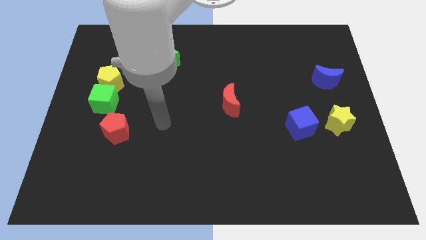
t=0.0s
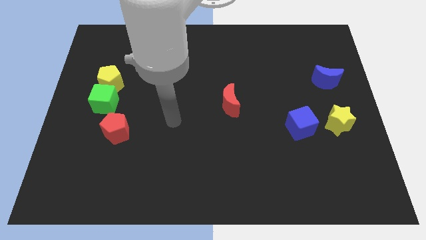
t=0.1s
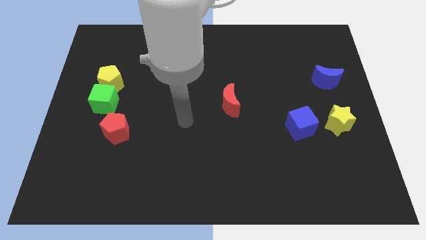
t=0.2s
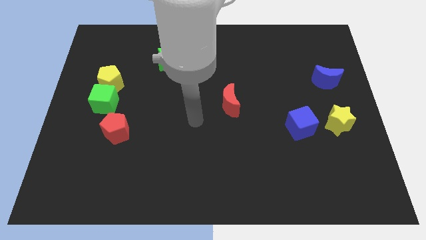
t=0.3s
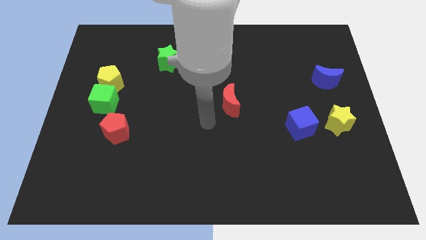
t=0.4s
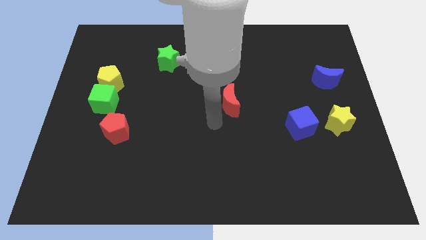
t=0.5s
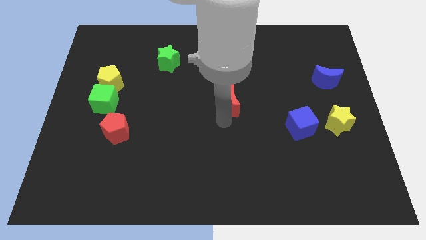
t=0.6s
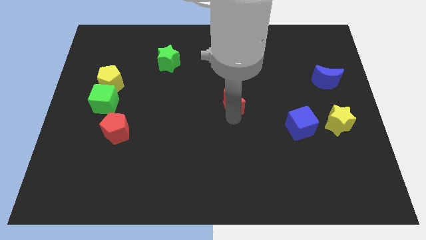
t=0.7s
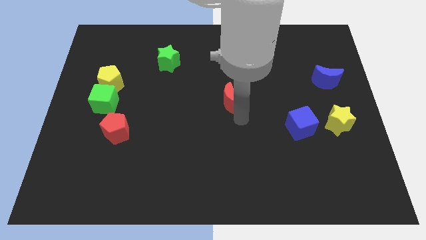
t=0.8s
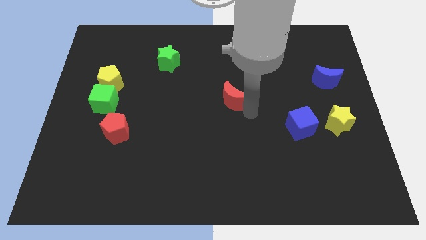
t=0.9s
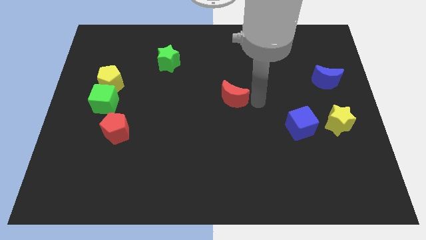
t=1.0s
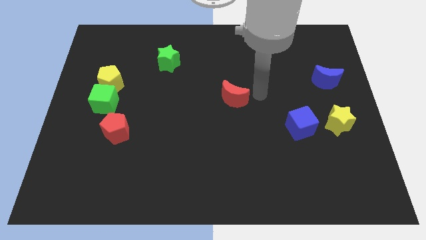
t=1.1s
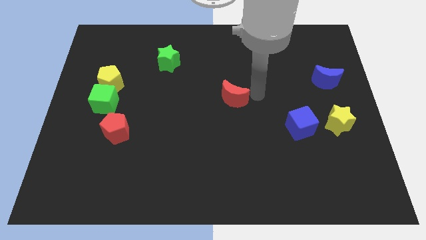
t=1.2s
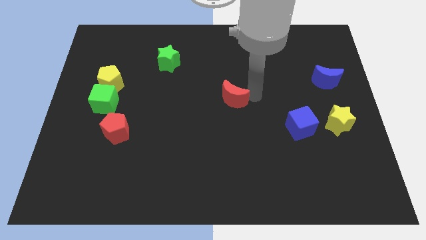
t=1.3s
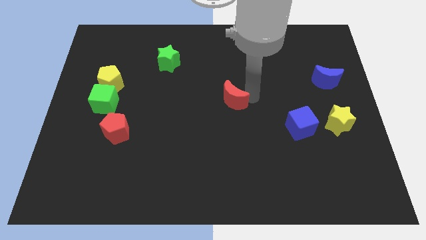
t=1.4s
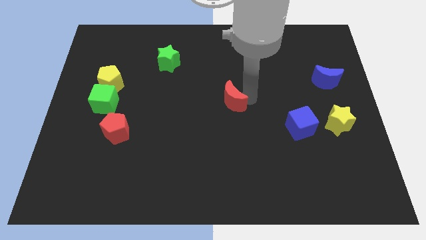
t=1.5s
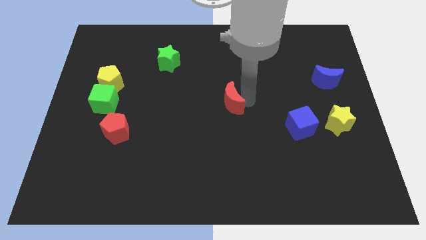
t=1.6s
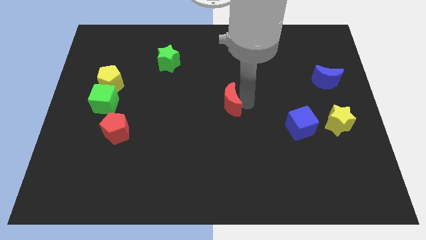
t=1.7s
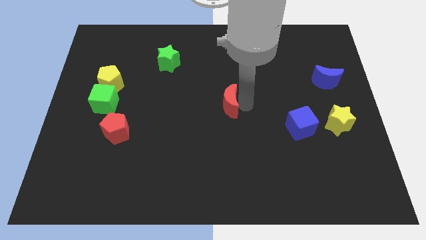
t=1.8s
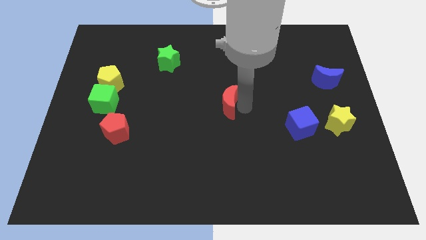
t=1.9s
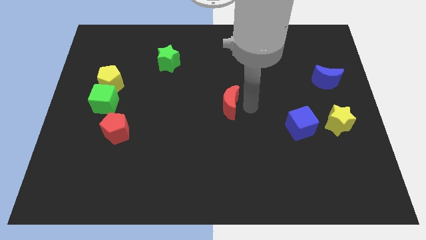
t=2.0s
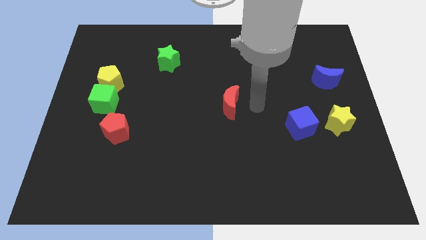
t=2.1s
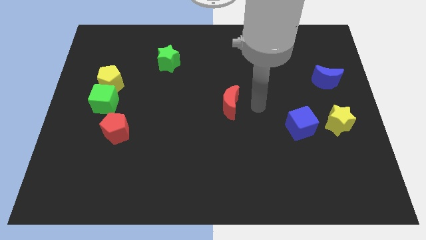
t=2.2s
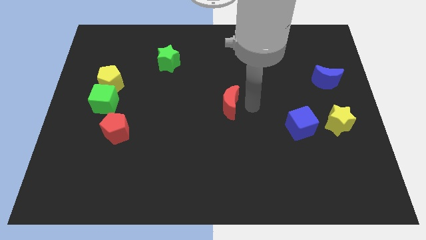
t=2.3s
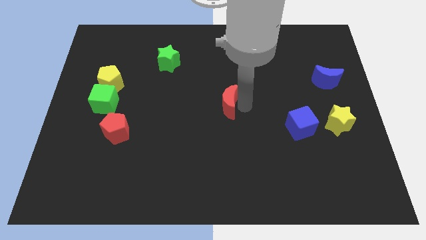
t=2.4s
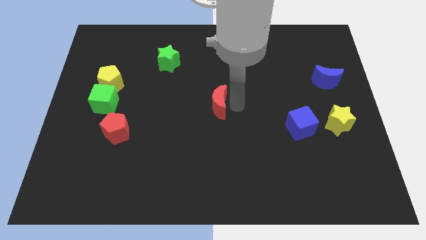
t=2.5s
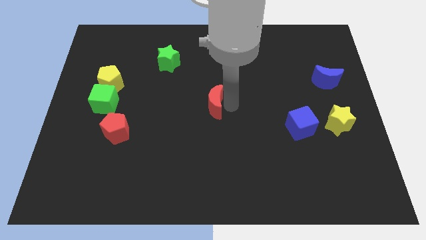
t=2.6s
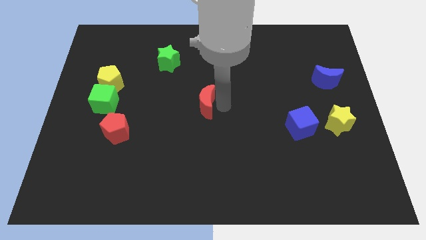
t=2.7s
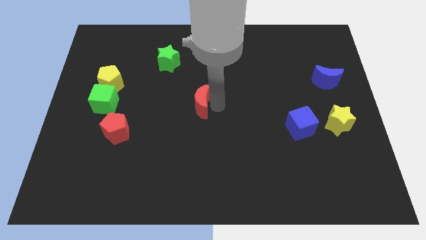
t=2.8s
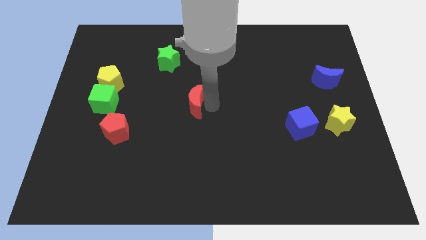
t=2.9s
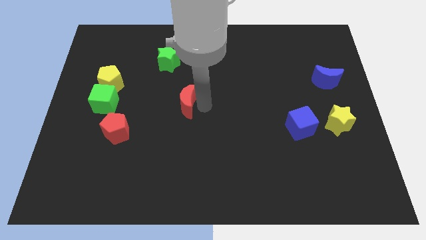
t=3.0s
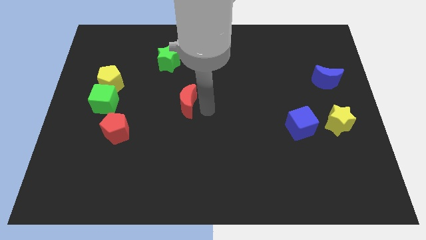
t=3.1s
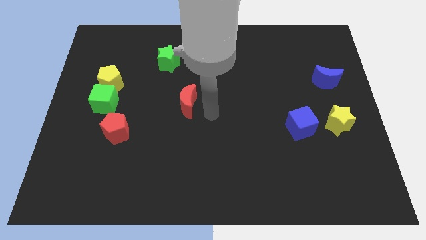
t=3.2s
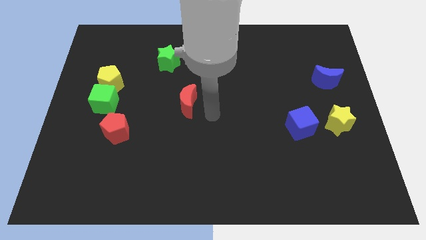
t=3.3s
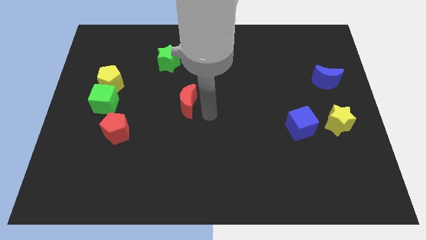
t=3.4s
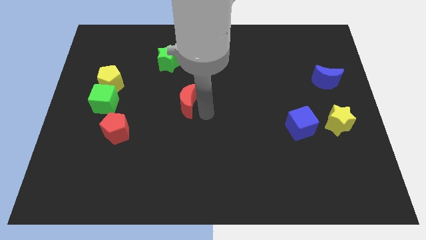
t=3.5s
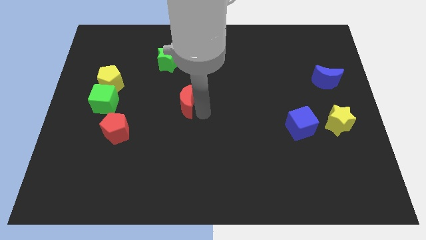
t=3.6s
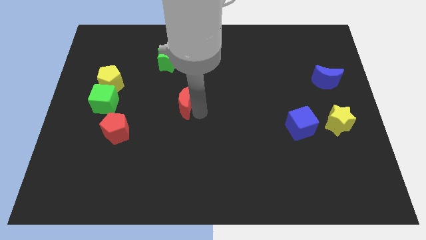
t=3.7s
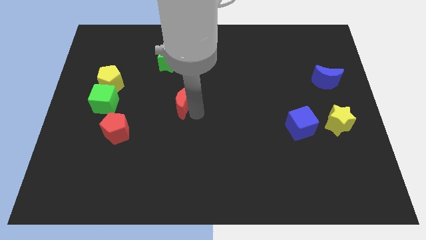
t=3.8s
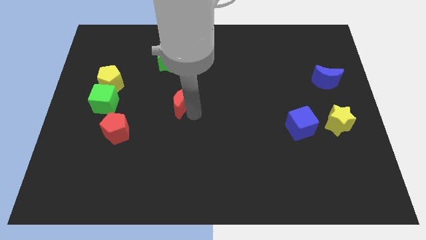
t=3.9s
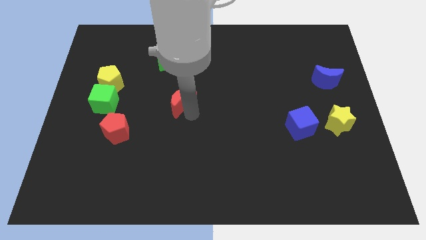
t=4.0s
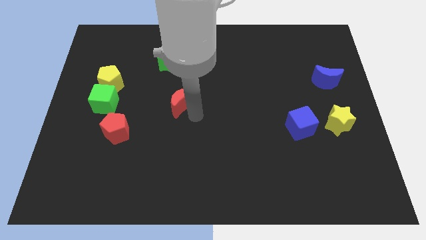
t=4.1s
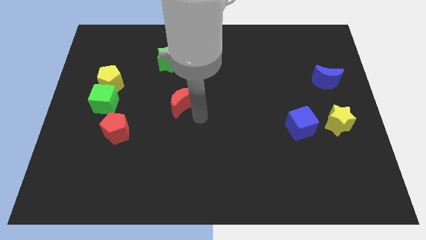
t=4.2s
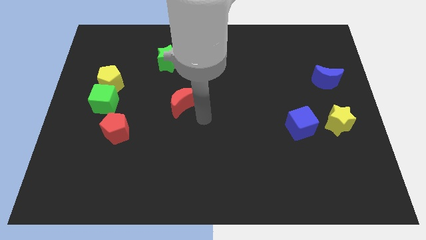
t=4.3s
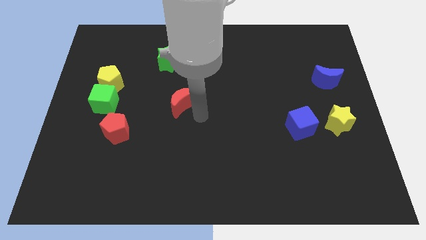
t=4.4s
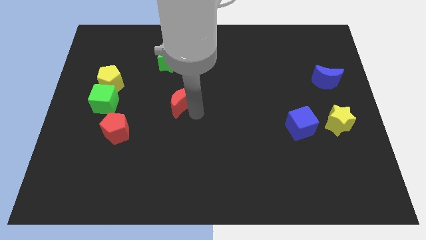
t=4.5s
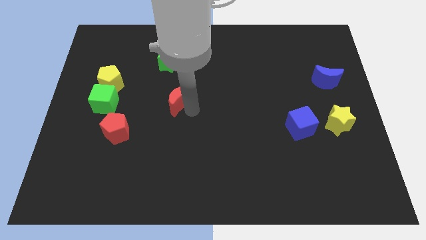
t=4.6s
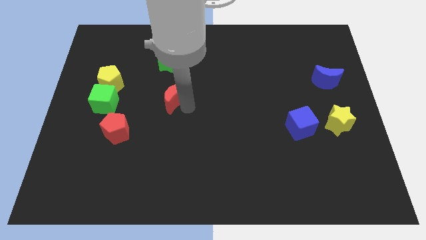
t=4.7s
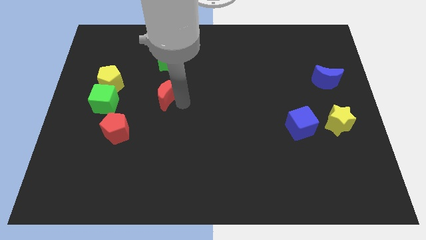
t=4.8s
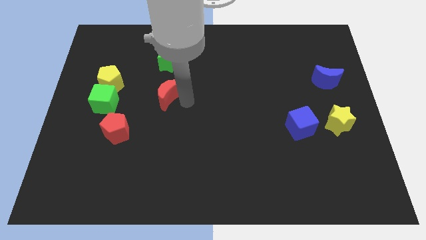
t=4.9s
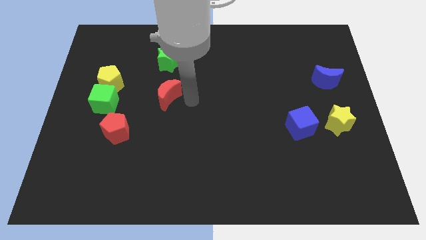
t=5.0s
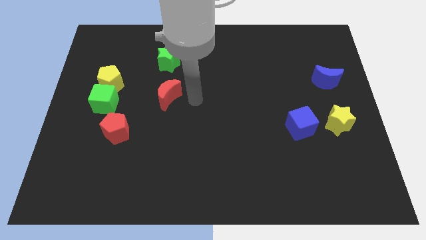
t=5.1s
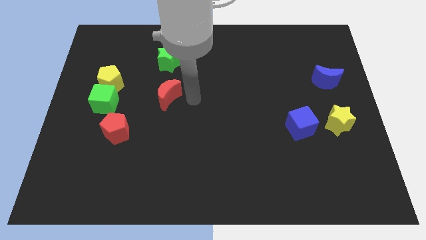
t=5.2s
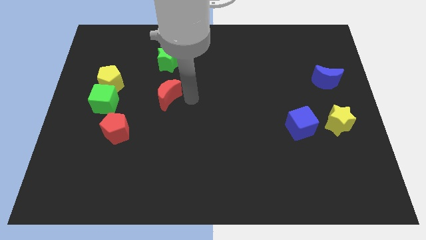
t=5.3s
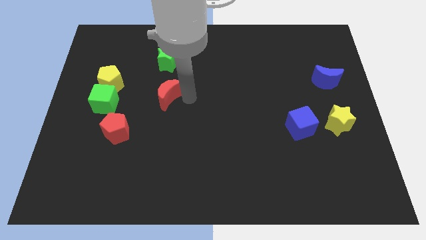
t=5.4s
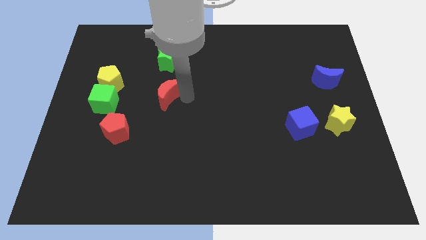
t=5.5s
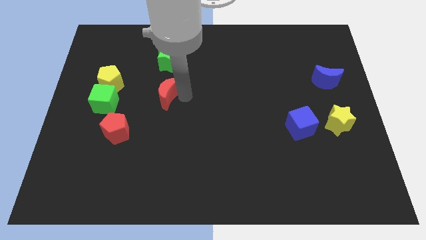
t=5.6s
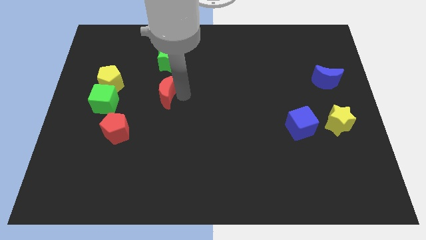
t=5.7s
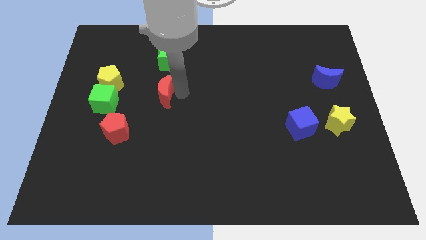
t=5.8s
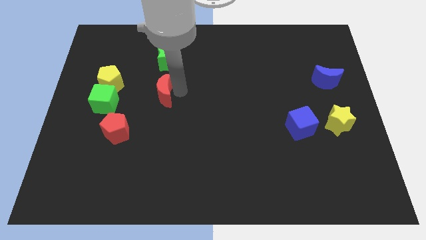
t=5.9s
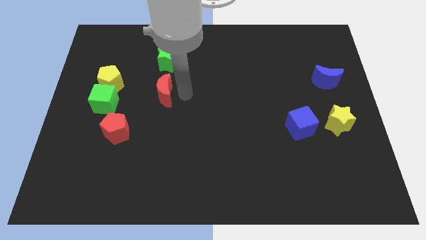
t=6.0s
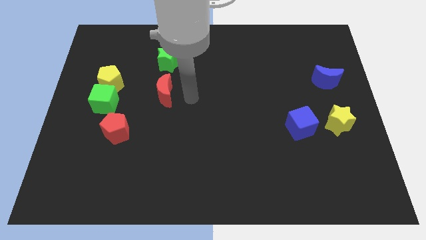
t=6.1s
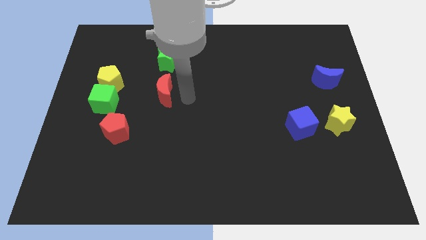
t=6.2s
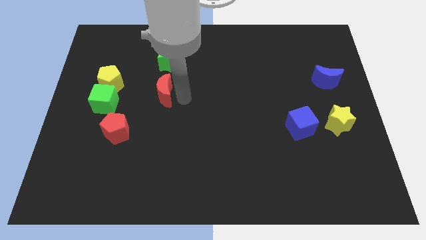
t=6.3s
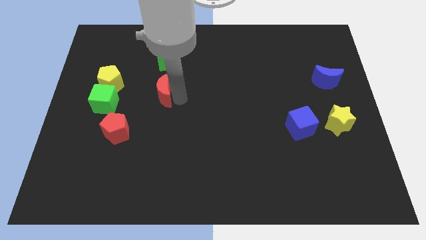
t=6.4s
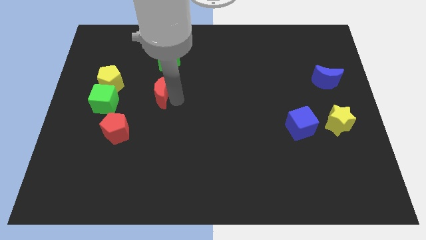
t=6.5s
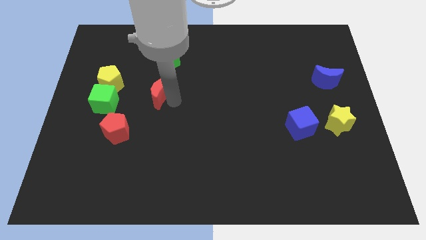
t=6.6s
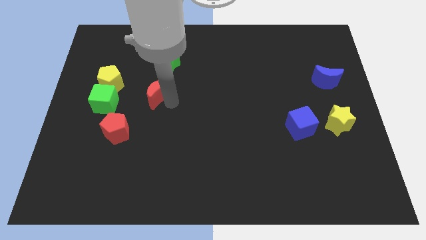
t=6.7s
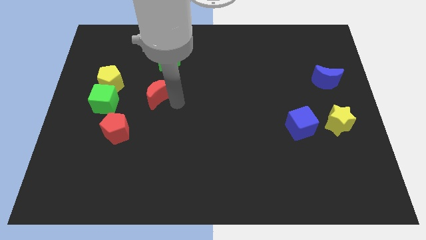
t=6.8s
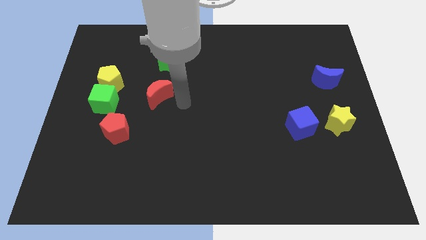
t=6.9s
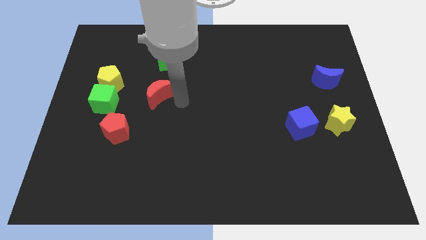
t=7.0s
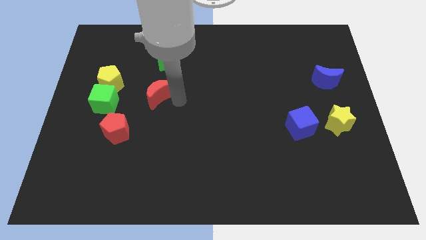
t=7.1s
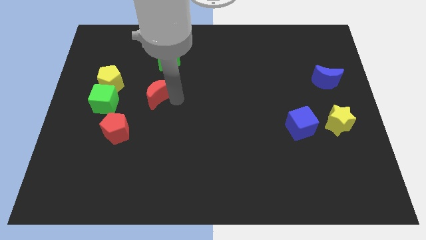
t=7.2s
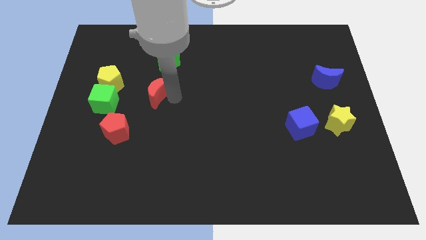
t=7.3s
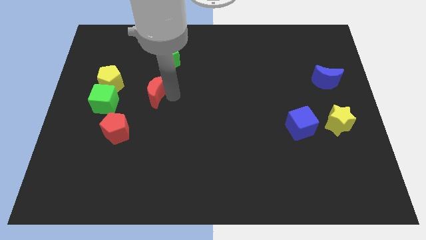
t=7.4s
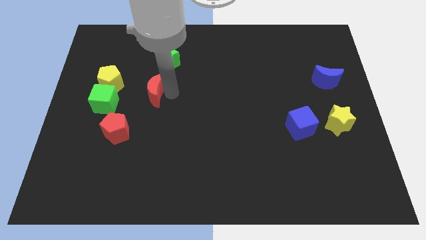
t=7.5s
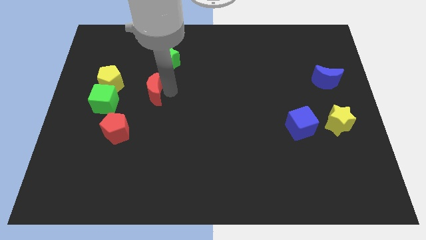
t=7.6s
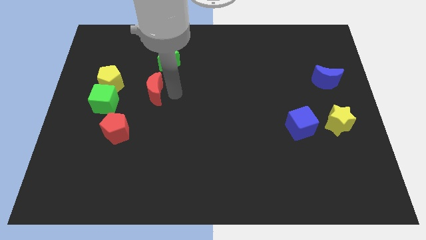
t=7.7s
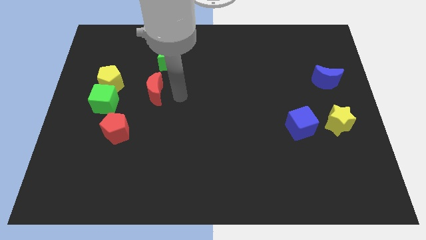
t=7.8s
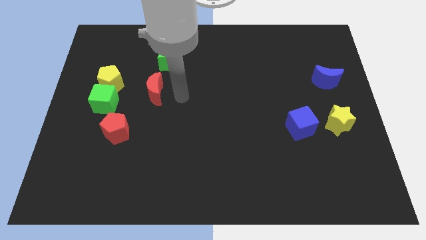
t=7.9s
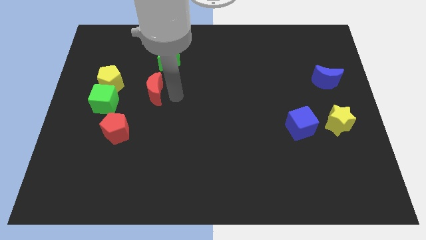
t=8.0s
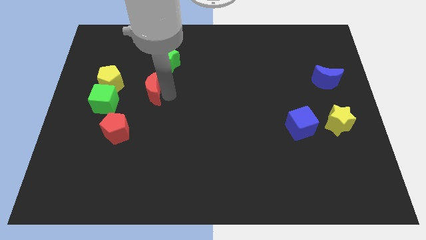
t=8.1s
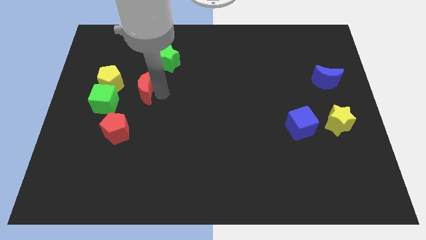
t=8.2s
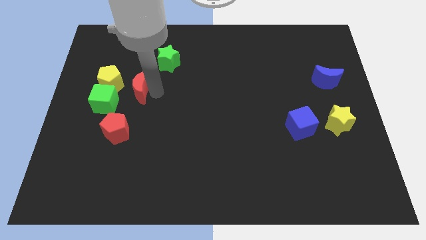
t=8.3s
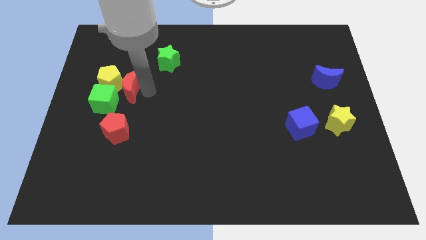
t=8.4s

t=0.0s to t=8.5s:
slide the red moon close to the yellow pentagon
